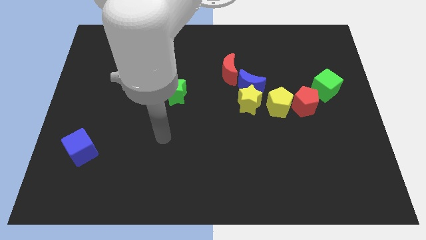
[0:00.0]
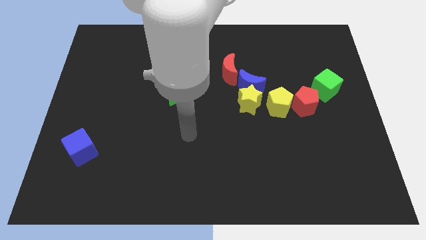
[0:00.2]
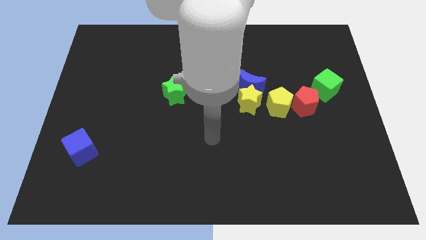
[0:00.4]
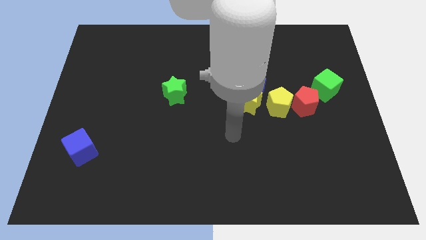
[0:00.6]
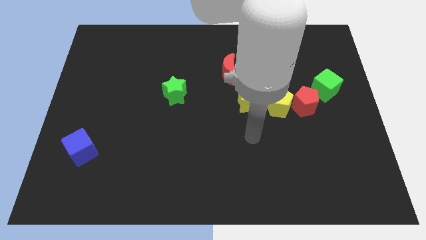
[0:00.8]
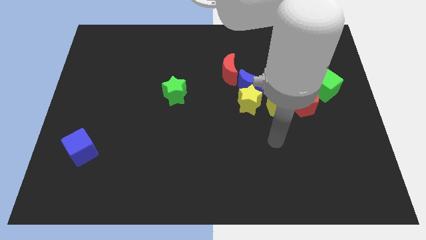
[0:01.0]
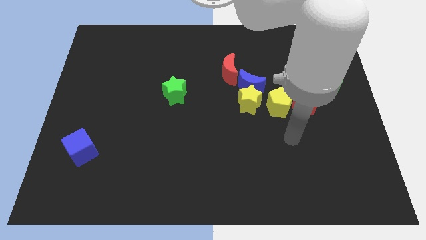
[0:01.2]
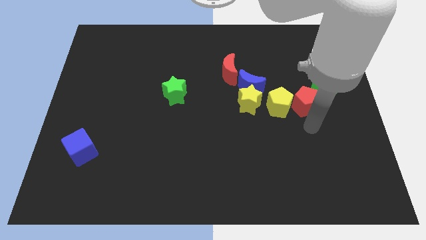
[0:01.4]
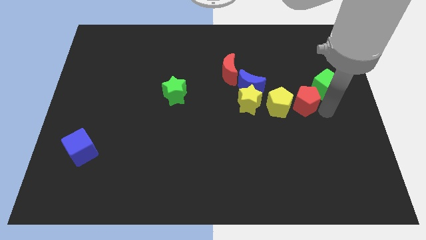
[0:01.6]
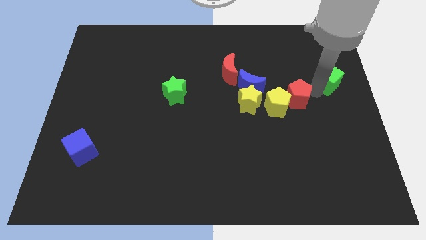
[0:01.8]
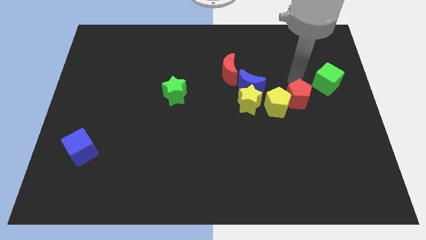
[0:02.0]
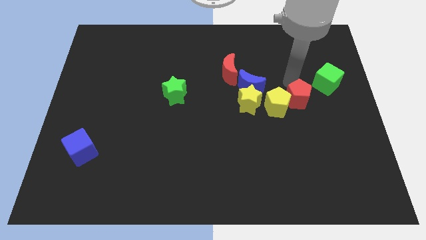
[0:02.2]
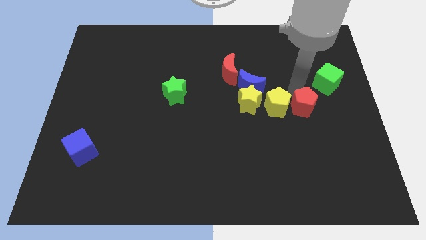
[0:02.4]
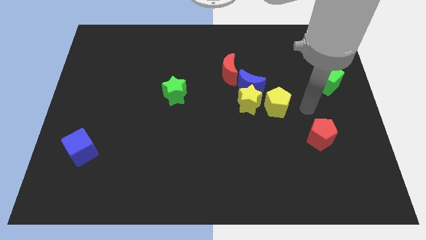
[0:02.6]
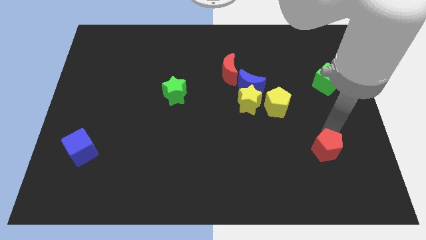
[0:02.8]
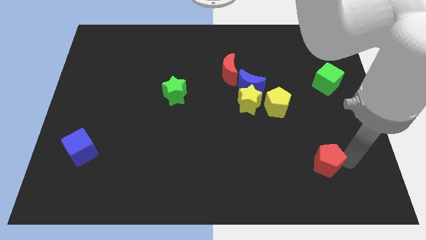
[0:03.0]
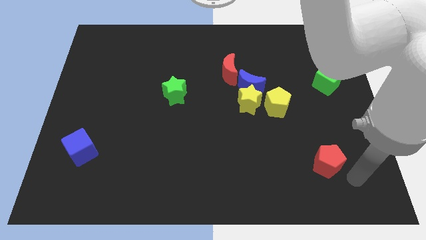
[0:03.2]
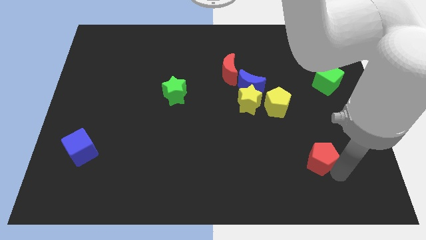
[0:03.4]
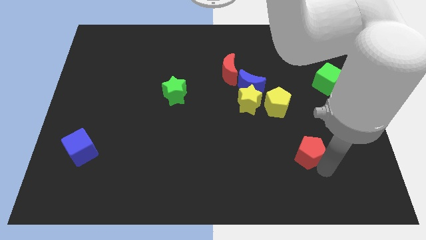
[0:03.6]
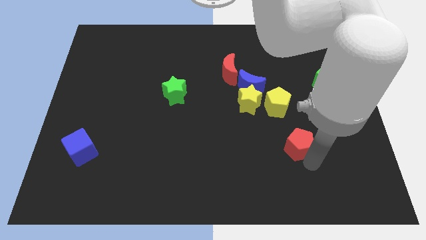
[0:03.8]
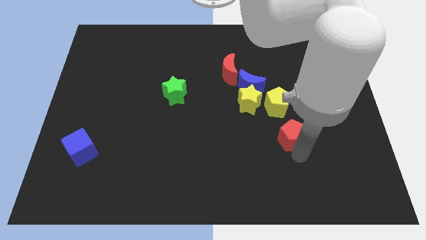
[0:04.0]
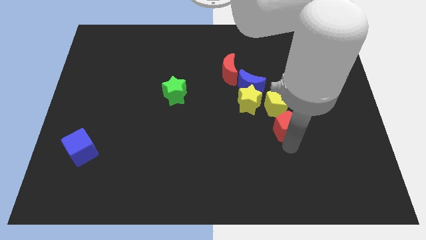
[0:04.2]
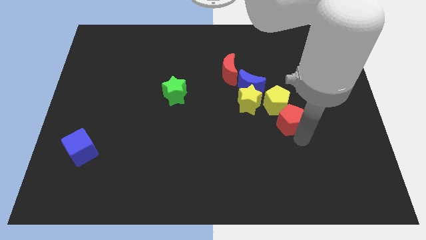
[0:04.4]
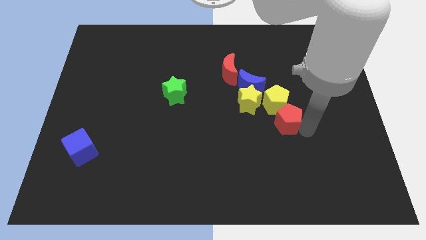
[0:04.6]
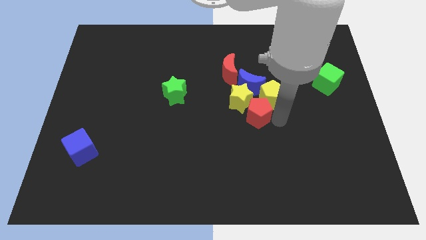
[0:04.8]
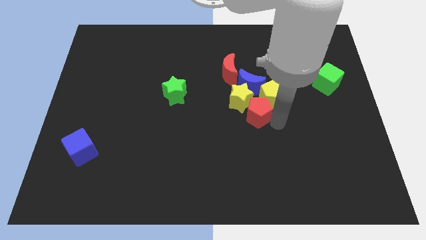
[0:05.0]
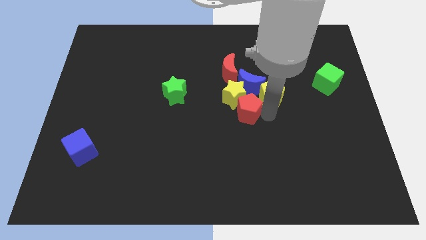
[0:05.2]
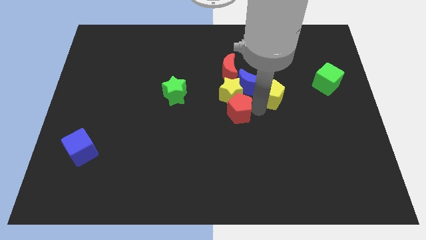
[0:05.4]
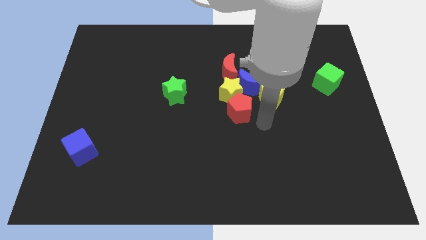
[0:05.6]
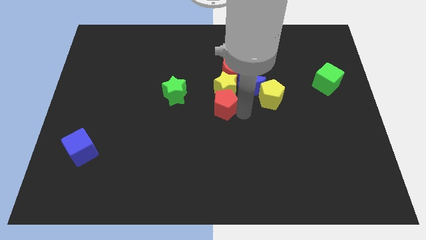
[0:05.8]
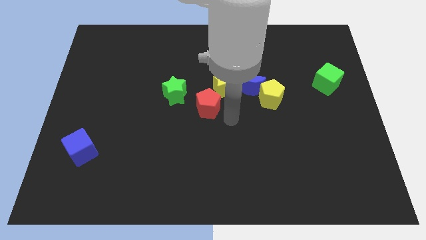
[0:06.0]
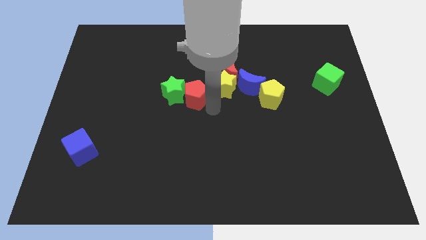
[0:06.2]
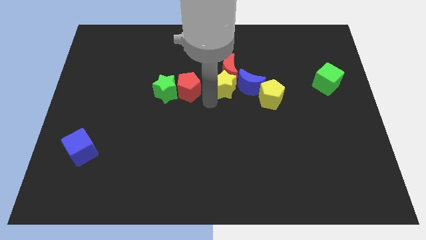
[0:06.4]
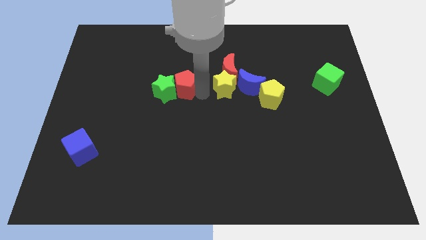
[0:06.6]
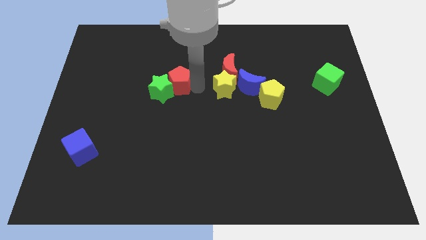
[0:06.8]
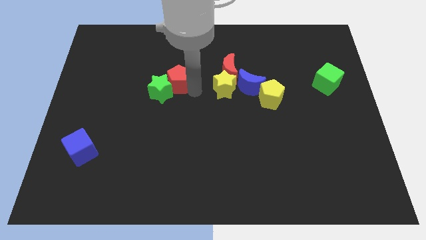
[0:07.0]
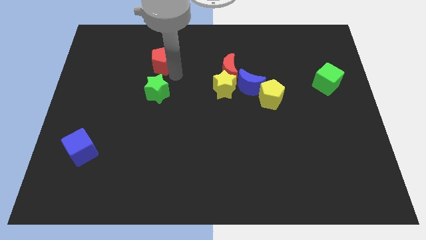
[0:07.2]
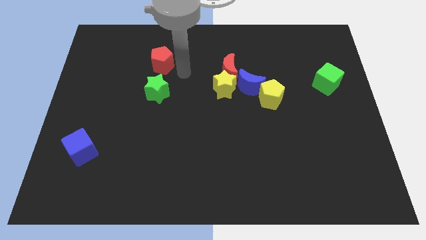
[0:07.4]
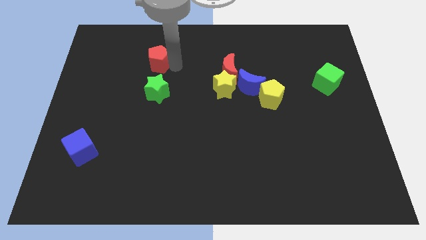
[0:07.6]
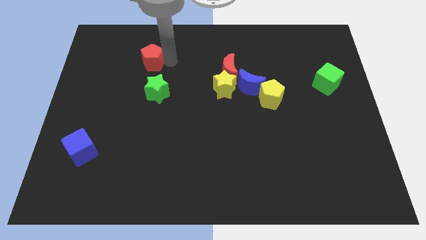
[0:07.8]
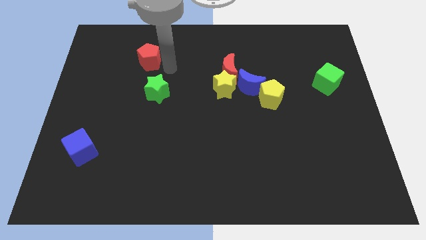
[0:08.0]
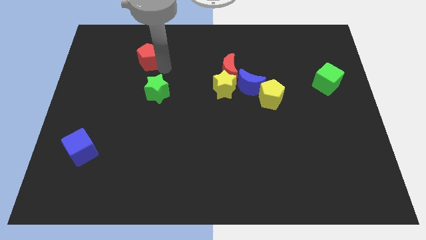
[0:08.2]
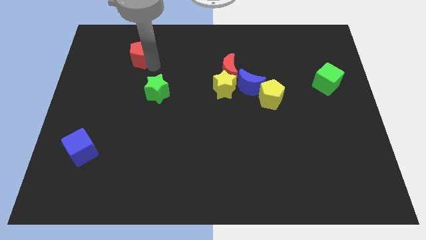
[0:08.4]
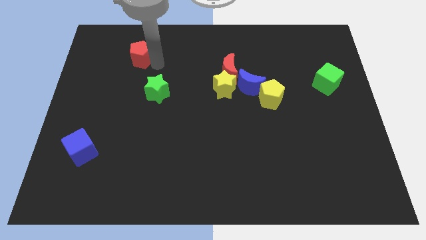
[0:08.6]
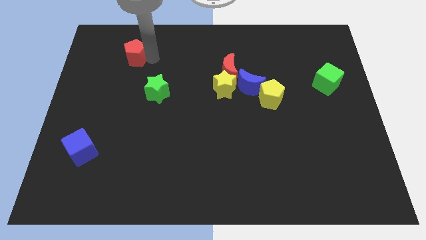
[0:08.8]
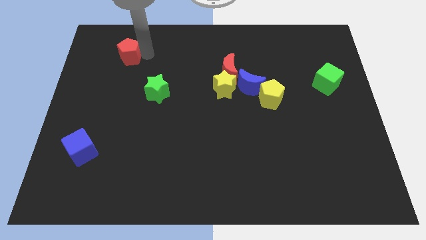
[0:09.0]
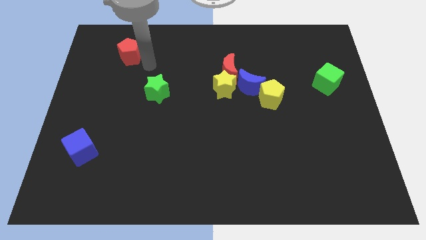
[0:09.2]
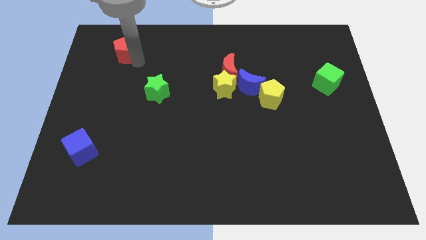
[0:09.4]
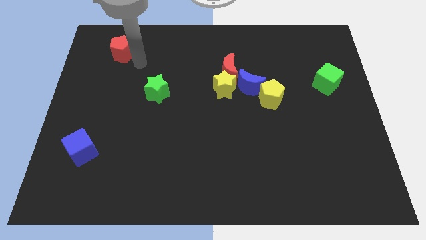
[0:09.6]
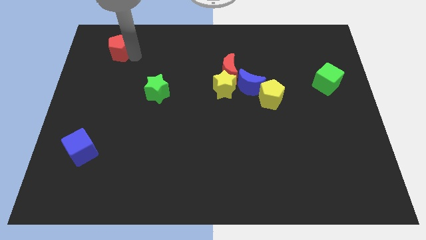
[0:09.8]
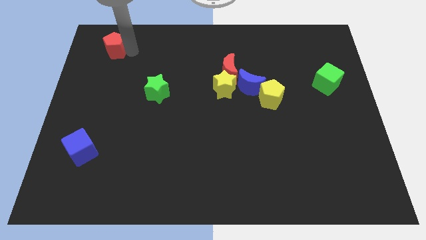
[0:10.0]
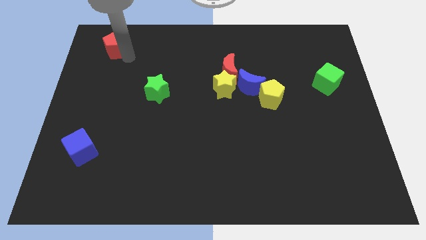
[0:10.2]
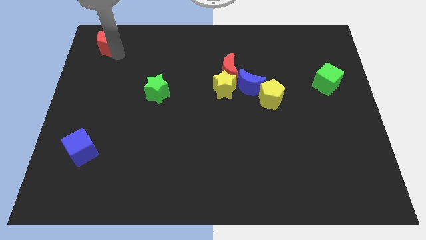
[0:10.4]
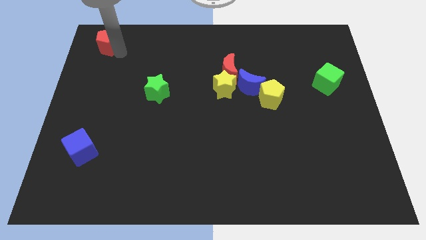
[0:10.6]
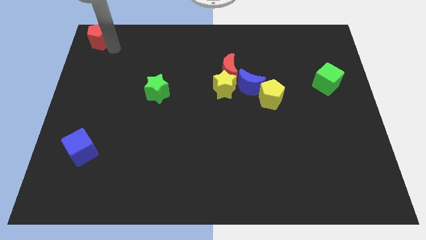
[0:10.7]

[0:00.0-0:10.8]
slide the red pentagon to the top left

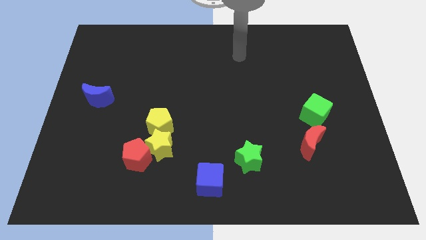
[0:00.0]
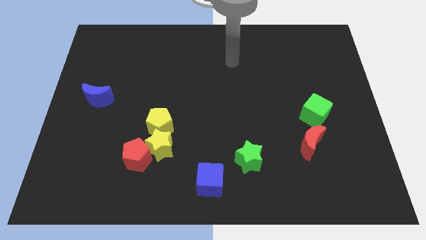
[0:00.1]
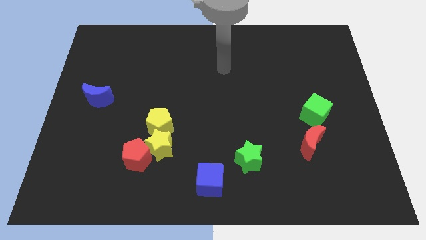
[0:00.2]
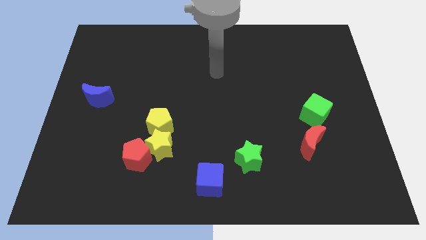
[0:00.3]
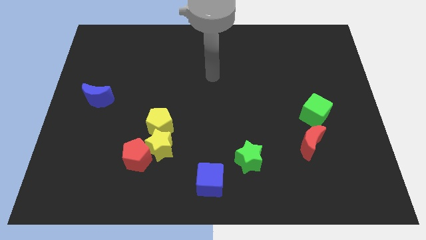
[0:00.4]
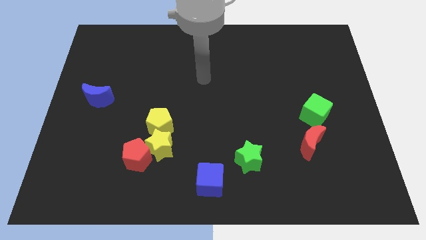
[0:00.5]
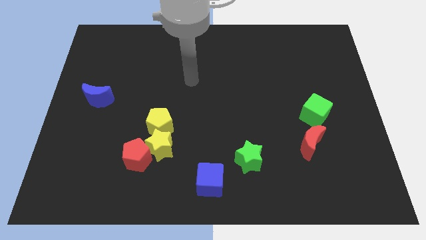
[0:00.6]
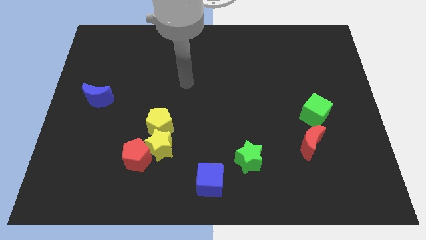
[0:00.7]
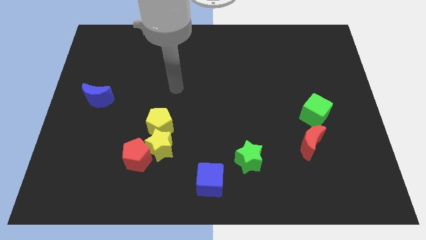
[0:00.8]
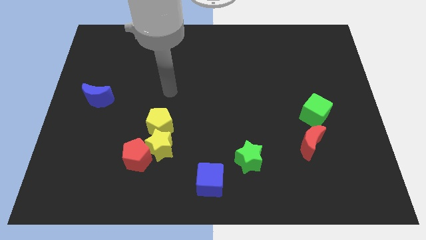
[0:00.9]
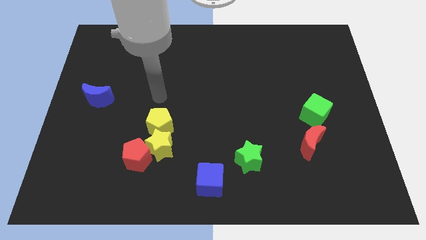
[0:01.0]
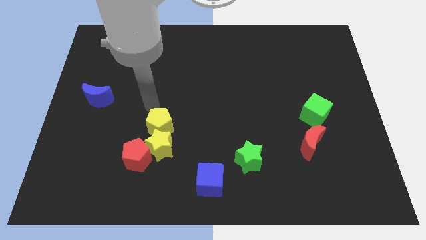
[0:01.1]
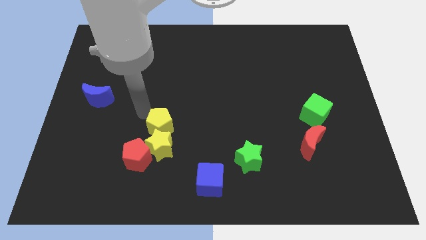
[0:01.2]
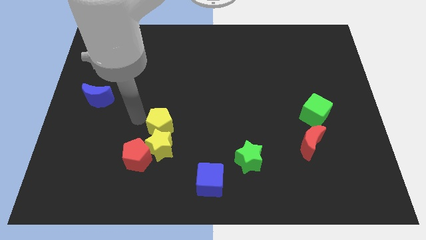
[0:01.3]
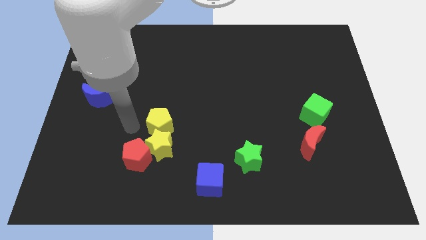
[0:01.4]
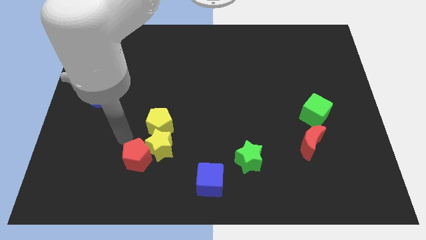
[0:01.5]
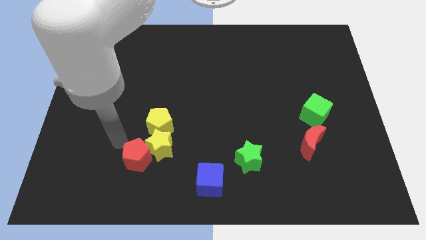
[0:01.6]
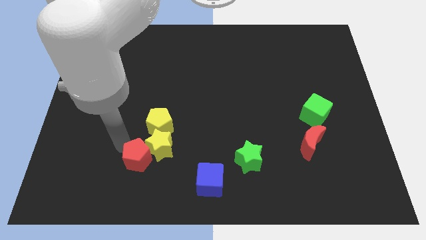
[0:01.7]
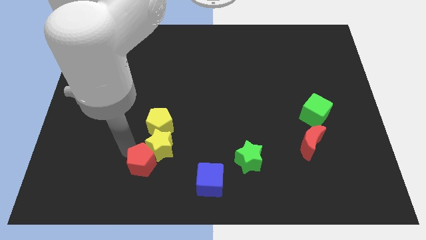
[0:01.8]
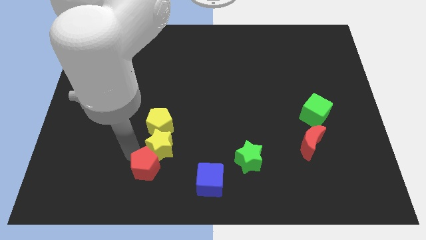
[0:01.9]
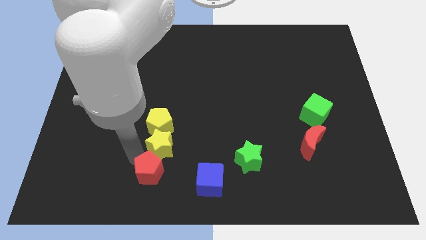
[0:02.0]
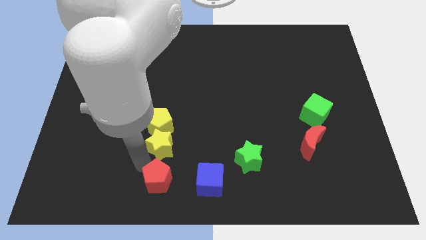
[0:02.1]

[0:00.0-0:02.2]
slide the red pentagon to the bottom
